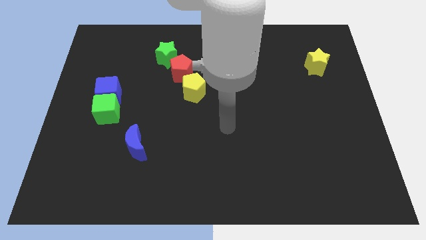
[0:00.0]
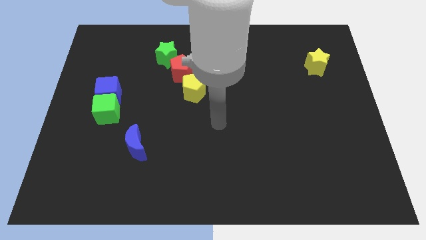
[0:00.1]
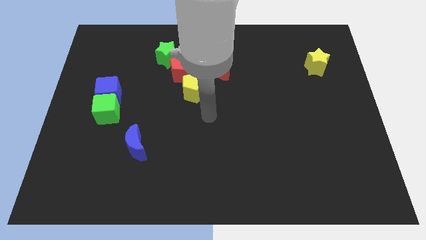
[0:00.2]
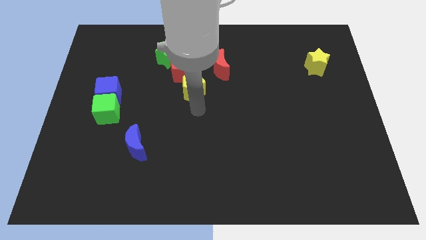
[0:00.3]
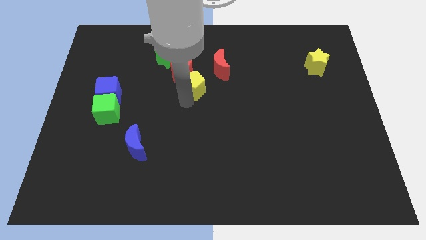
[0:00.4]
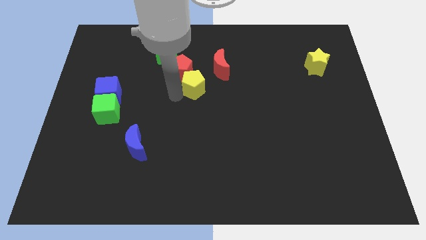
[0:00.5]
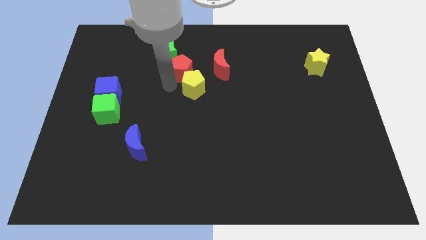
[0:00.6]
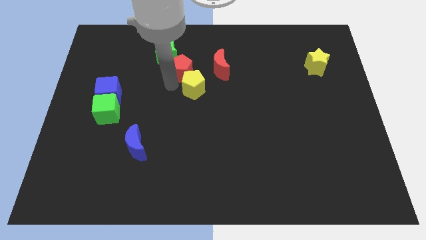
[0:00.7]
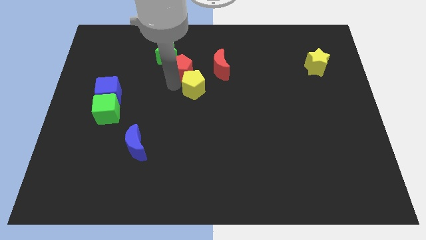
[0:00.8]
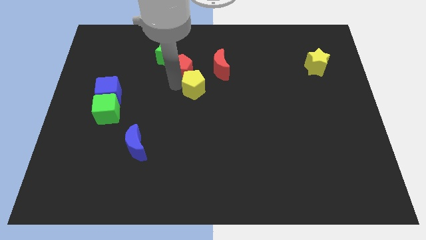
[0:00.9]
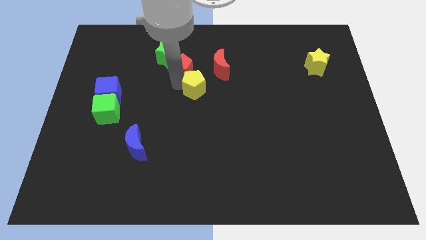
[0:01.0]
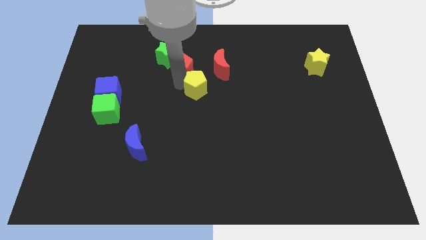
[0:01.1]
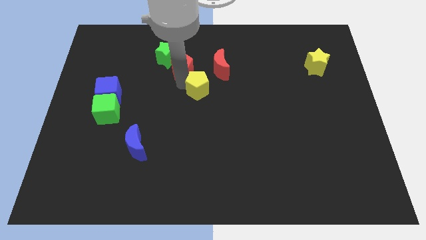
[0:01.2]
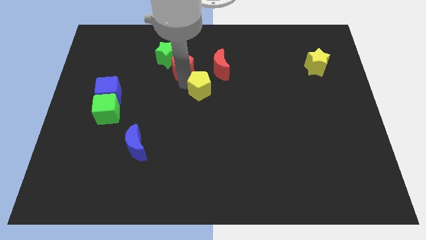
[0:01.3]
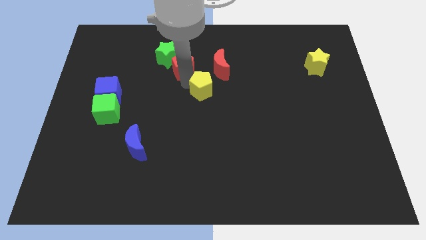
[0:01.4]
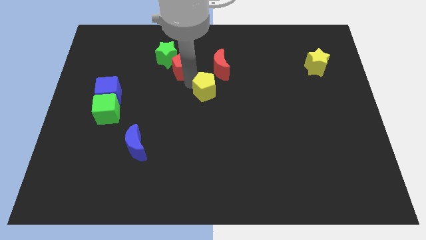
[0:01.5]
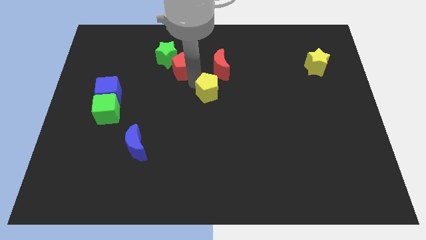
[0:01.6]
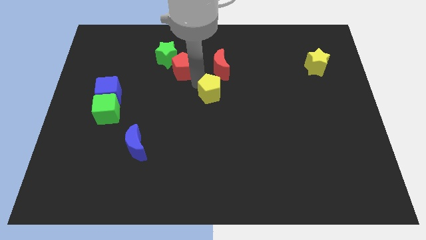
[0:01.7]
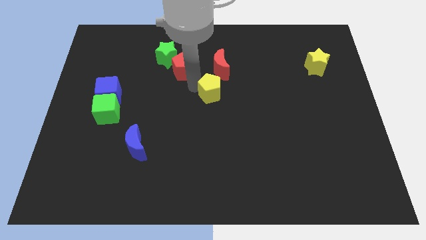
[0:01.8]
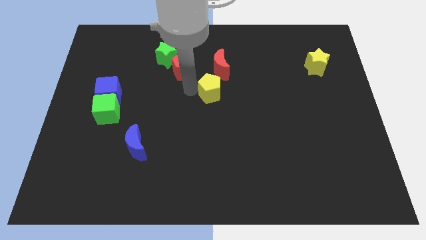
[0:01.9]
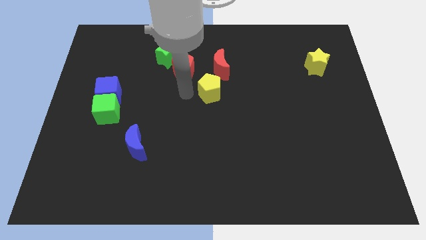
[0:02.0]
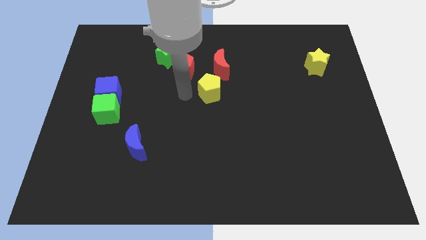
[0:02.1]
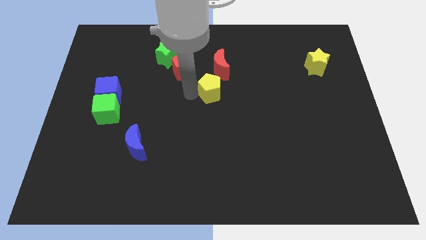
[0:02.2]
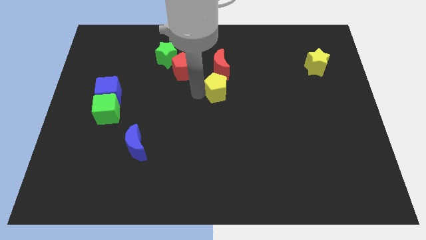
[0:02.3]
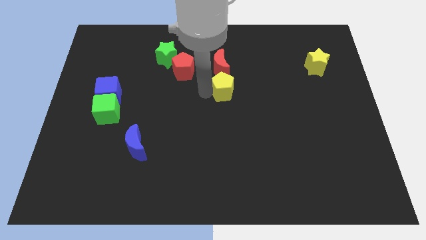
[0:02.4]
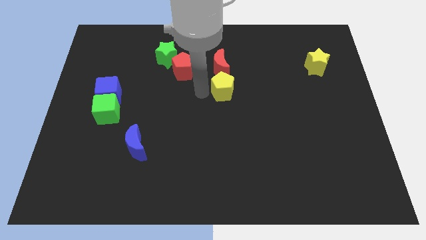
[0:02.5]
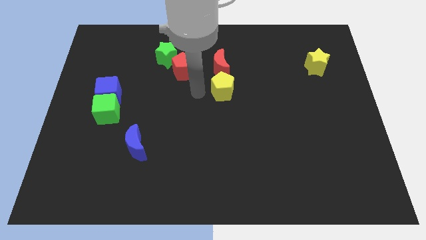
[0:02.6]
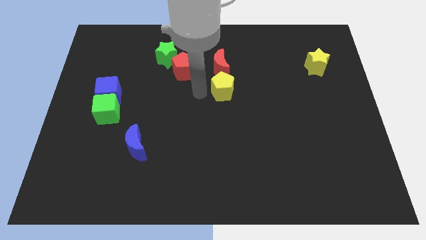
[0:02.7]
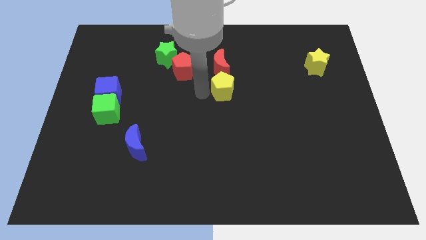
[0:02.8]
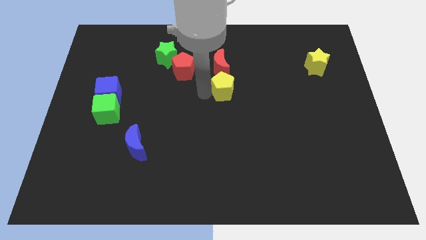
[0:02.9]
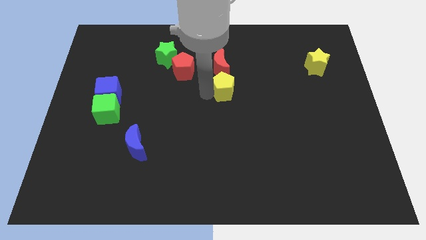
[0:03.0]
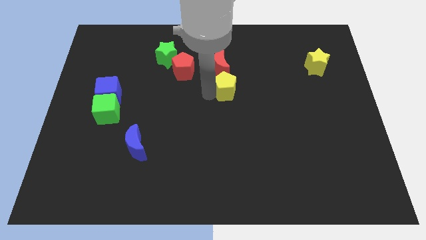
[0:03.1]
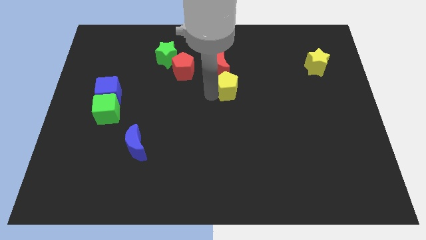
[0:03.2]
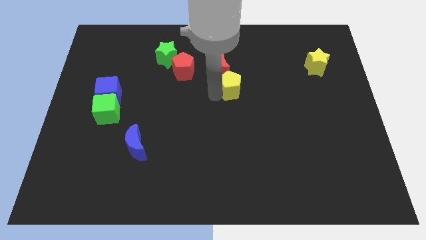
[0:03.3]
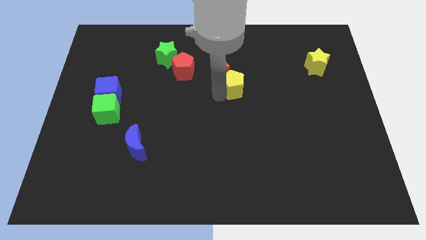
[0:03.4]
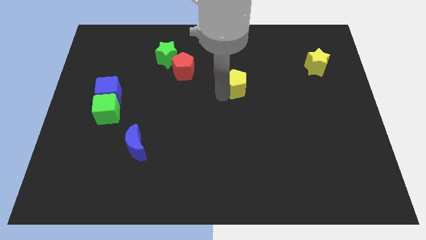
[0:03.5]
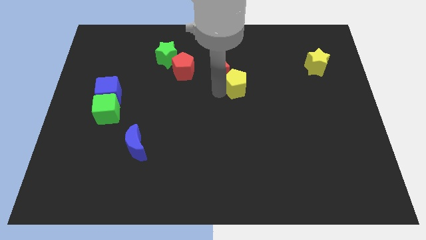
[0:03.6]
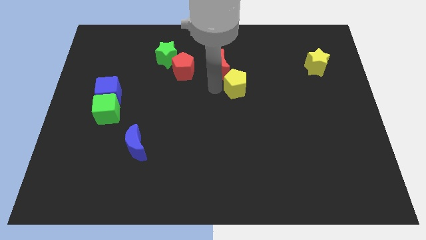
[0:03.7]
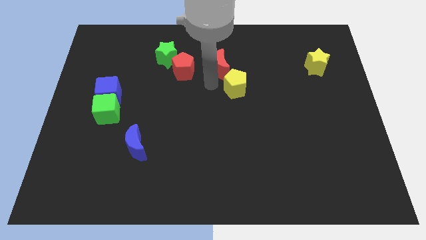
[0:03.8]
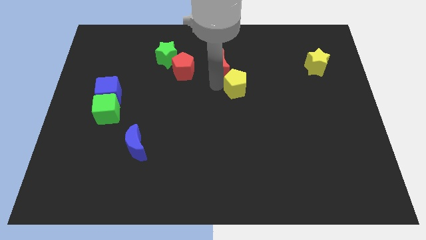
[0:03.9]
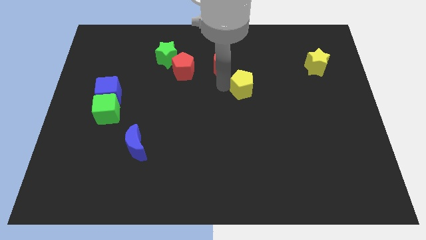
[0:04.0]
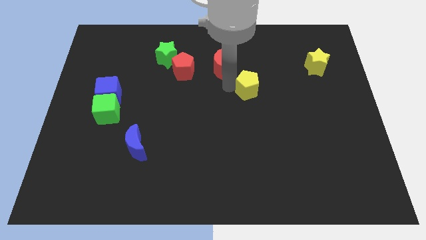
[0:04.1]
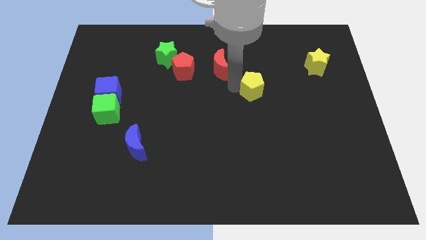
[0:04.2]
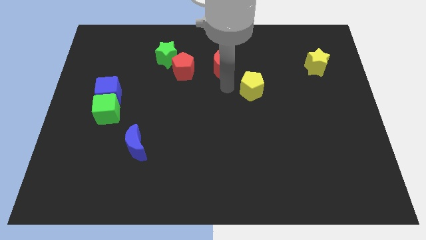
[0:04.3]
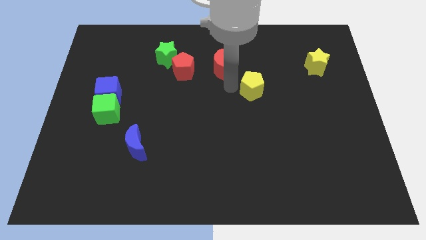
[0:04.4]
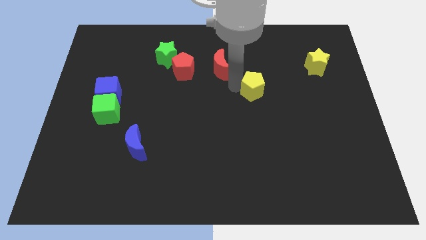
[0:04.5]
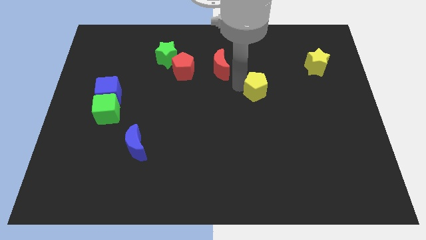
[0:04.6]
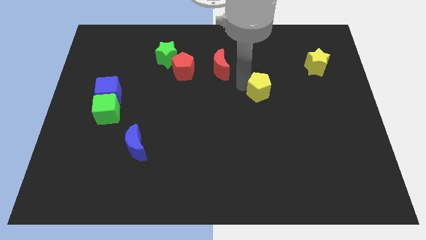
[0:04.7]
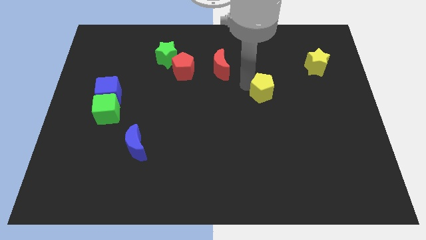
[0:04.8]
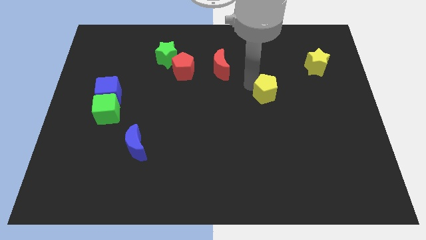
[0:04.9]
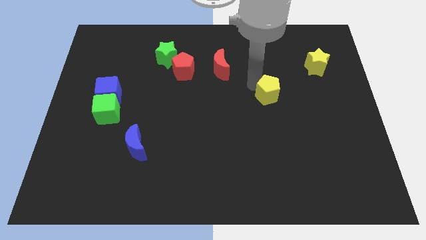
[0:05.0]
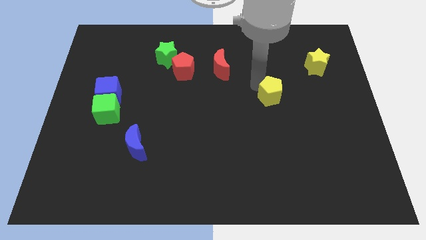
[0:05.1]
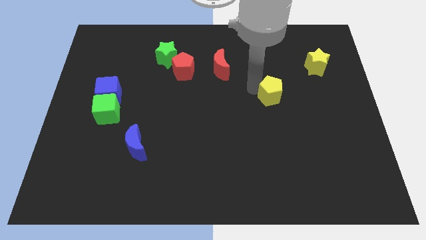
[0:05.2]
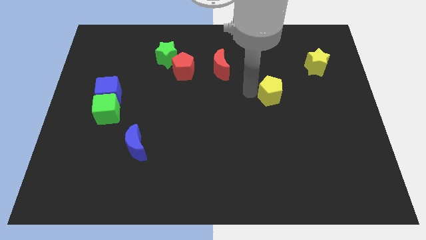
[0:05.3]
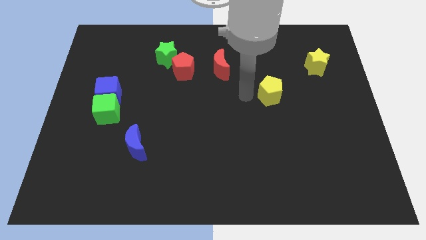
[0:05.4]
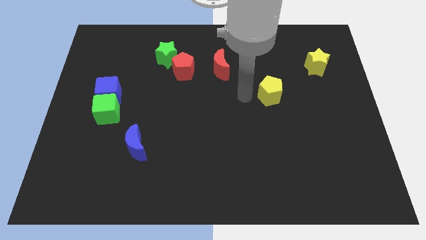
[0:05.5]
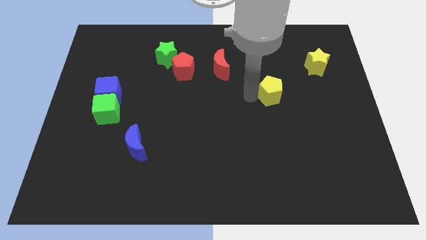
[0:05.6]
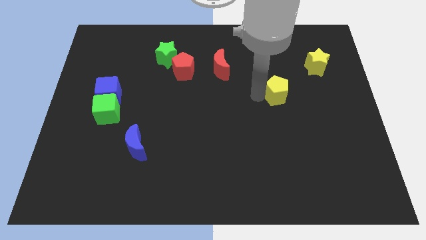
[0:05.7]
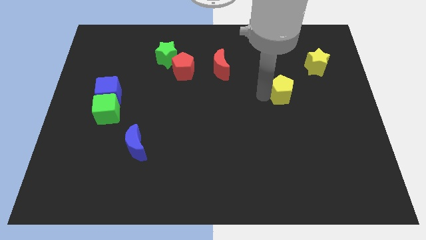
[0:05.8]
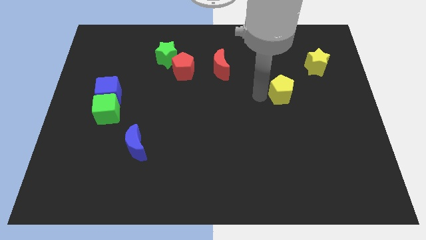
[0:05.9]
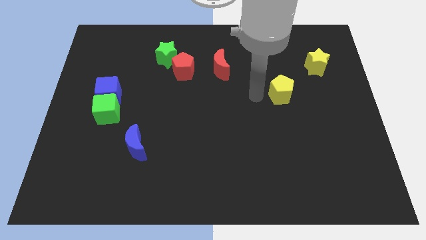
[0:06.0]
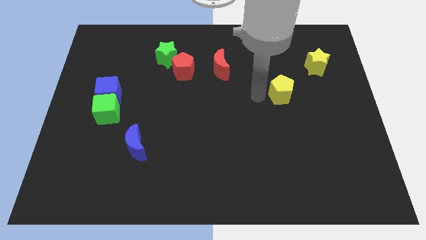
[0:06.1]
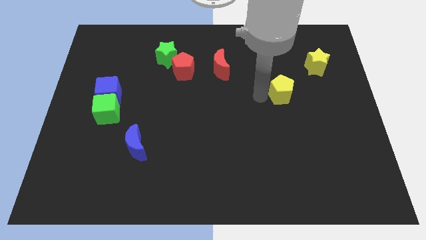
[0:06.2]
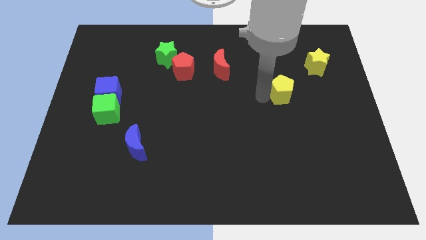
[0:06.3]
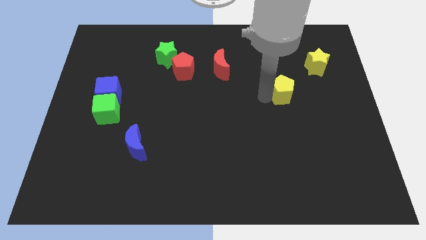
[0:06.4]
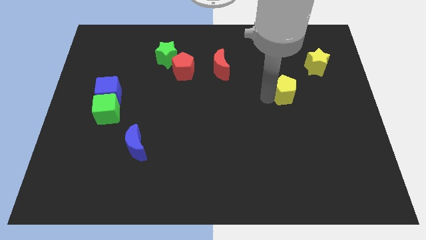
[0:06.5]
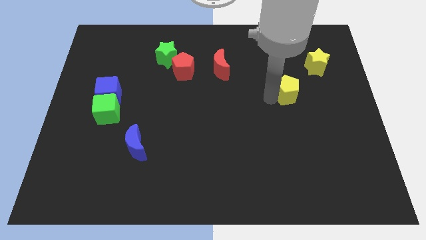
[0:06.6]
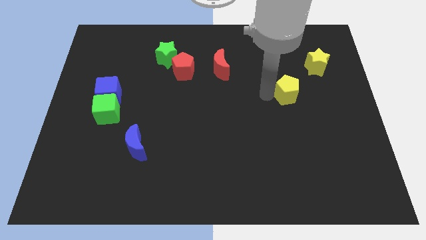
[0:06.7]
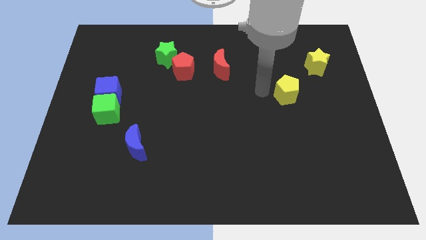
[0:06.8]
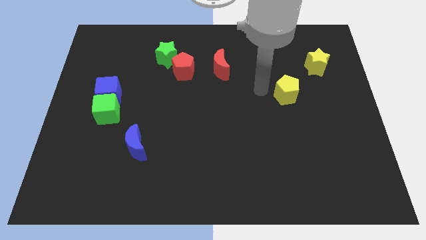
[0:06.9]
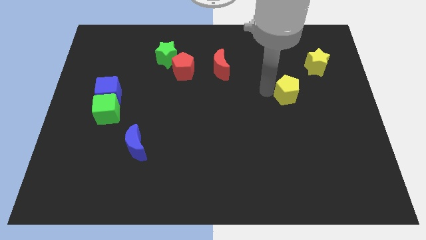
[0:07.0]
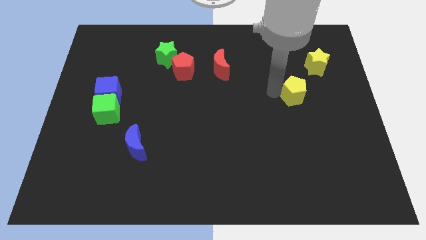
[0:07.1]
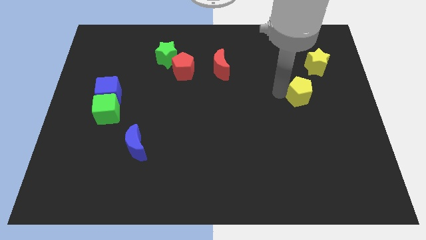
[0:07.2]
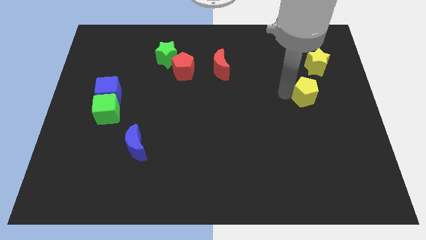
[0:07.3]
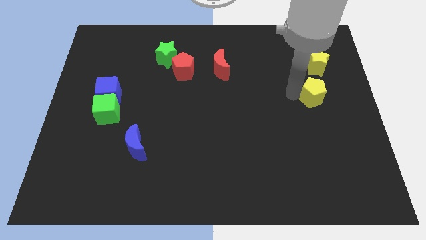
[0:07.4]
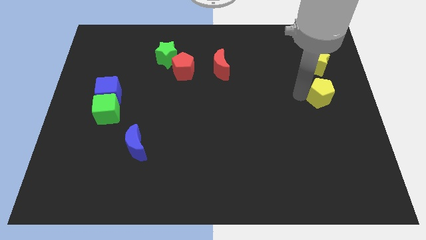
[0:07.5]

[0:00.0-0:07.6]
move the yellow pentagon to the right side of the board
